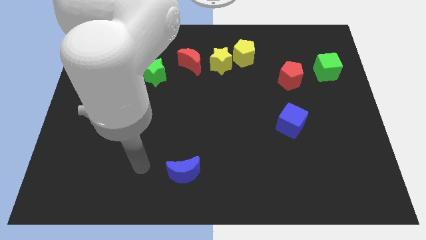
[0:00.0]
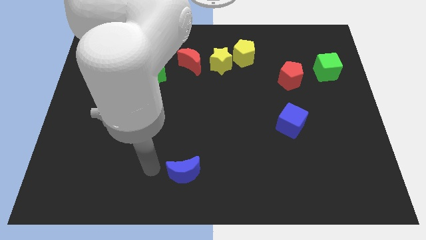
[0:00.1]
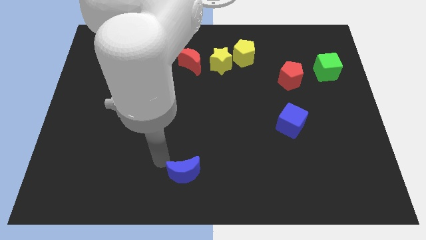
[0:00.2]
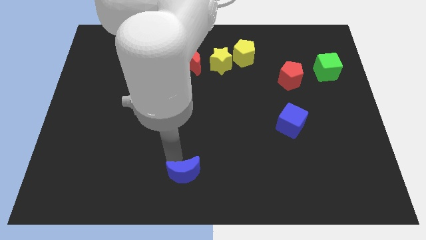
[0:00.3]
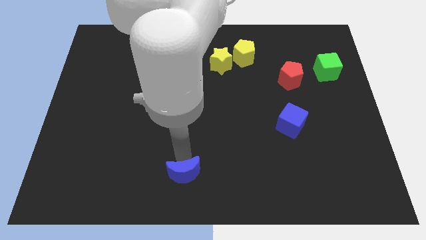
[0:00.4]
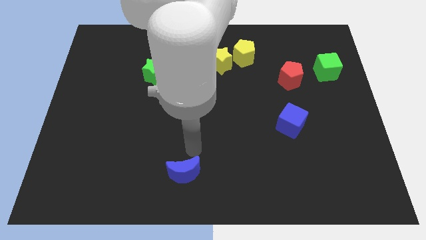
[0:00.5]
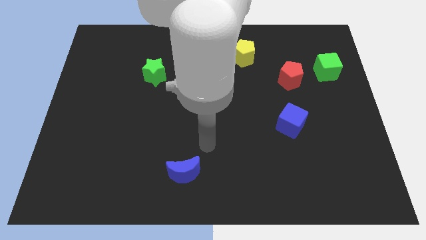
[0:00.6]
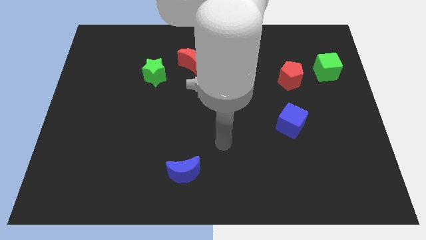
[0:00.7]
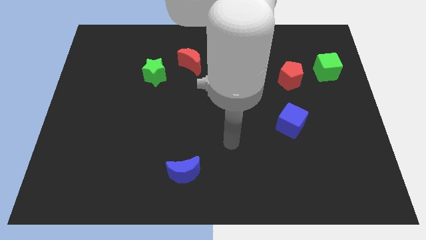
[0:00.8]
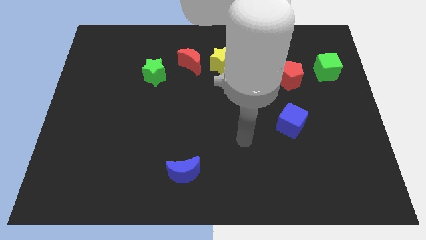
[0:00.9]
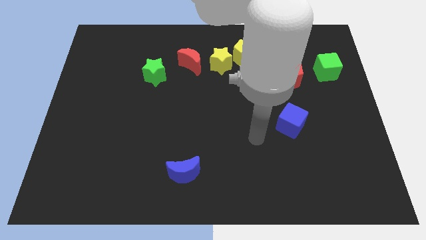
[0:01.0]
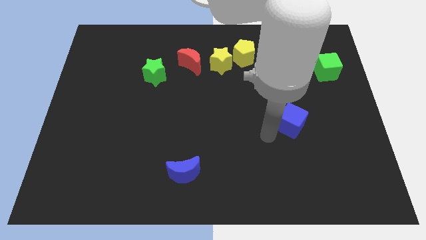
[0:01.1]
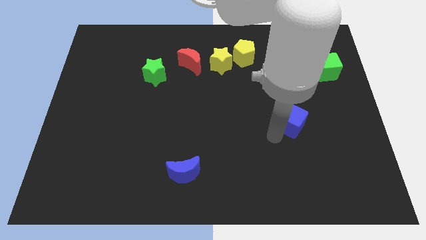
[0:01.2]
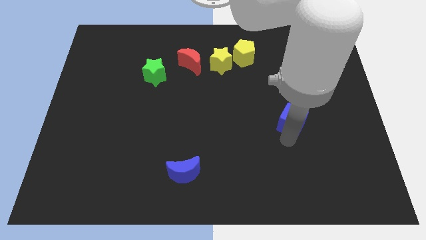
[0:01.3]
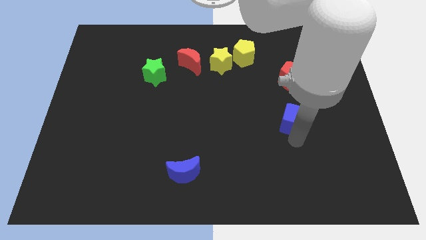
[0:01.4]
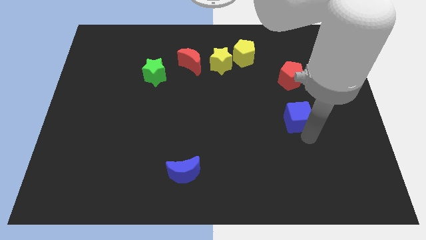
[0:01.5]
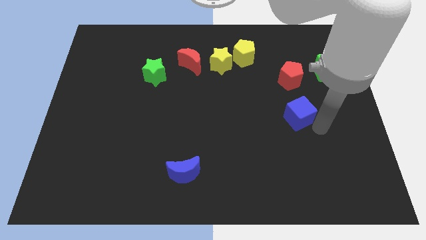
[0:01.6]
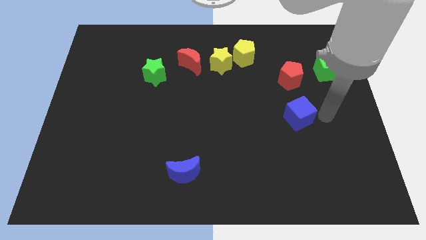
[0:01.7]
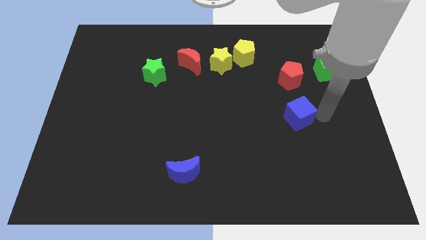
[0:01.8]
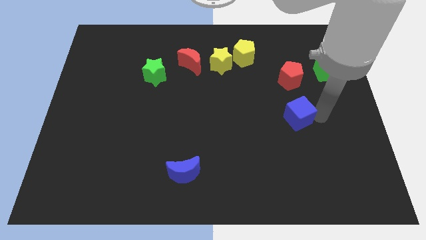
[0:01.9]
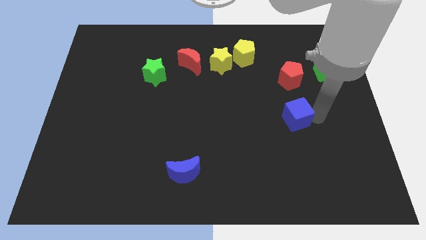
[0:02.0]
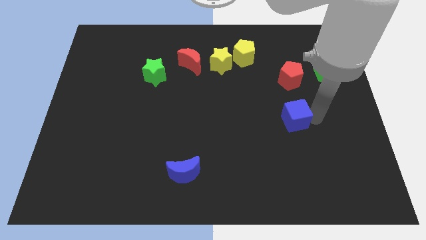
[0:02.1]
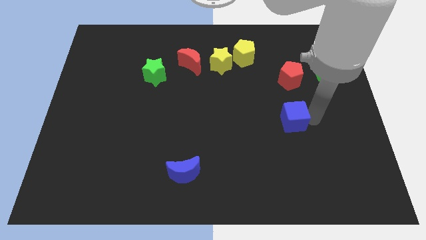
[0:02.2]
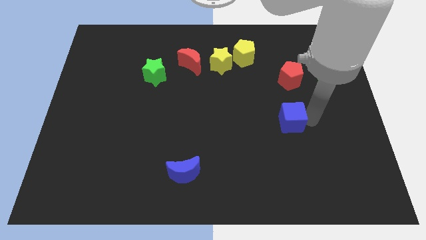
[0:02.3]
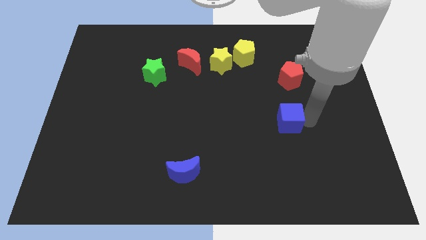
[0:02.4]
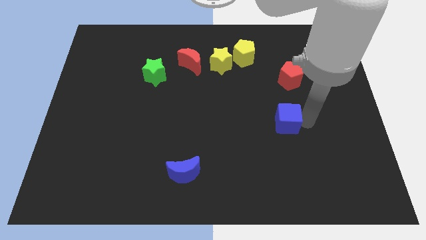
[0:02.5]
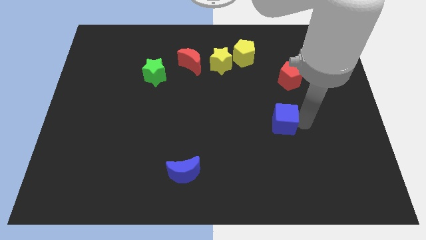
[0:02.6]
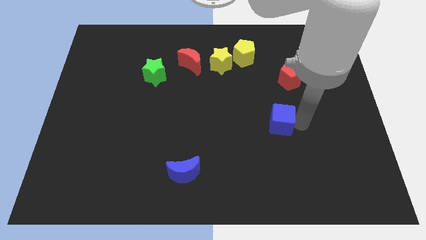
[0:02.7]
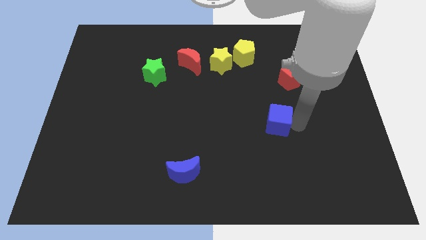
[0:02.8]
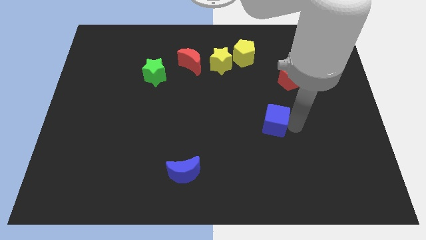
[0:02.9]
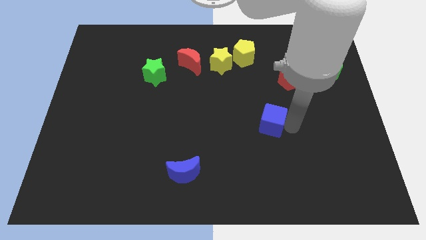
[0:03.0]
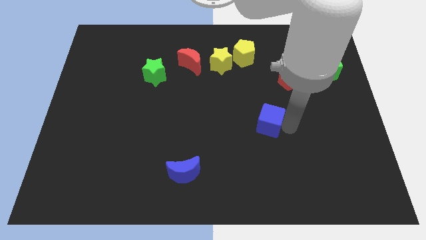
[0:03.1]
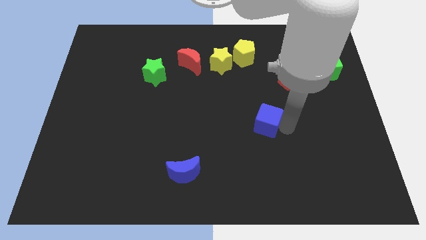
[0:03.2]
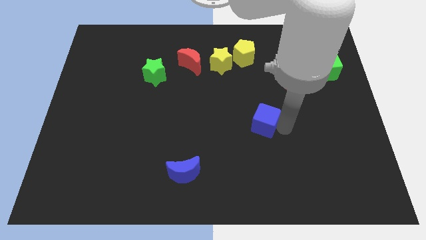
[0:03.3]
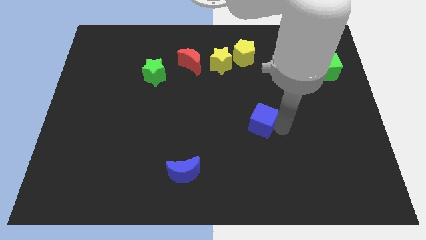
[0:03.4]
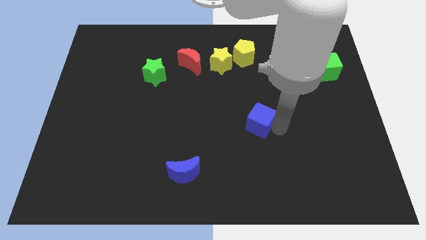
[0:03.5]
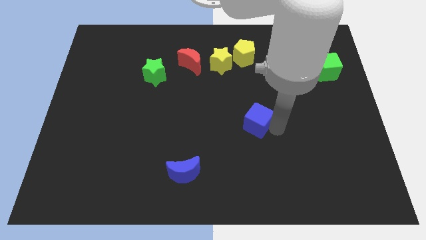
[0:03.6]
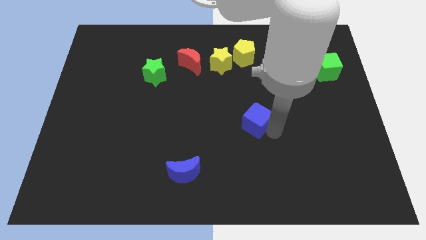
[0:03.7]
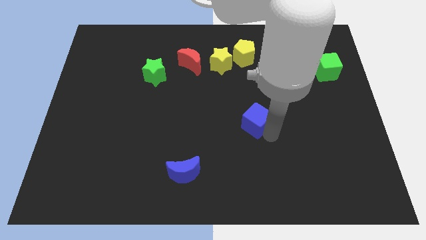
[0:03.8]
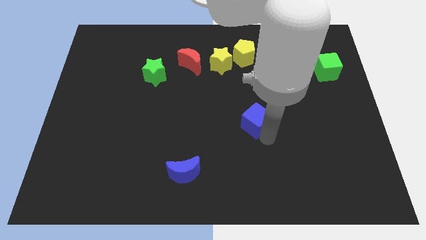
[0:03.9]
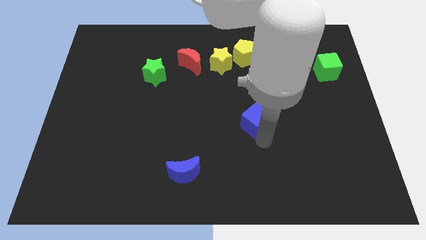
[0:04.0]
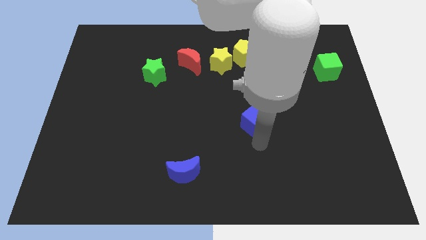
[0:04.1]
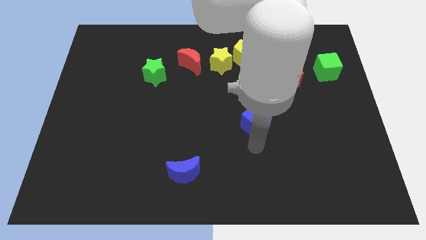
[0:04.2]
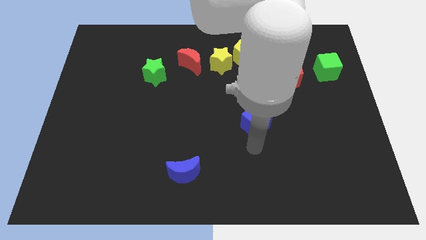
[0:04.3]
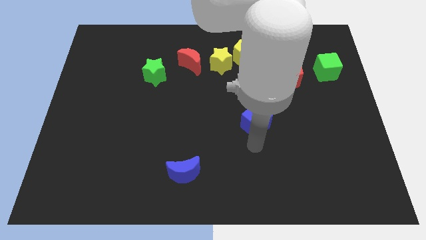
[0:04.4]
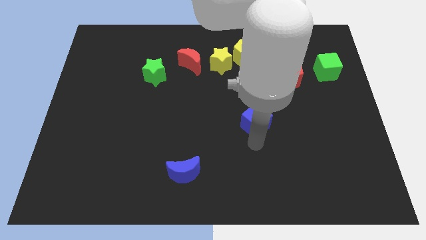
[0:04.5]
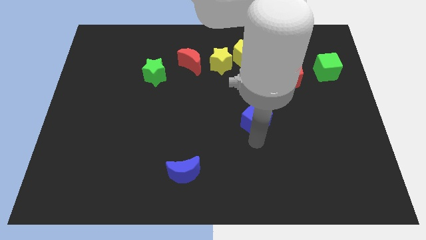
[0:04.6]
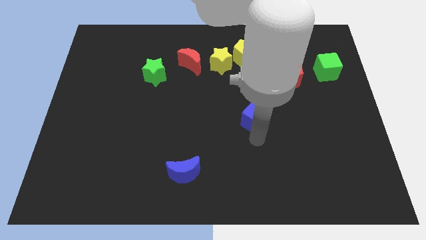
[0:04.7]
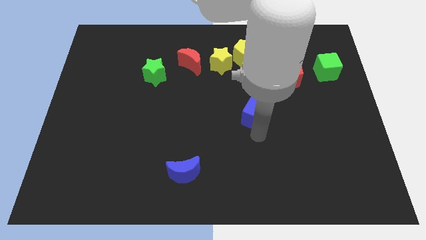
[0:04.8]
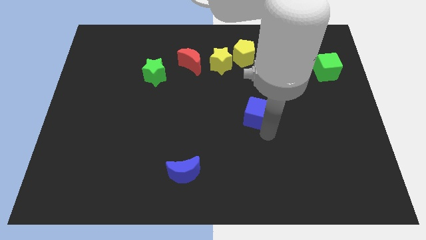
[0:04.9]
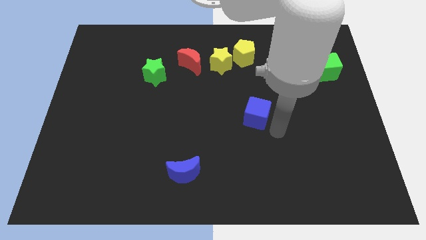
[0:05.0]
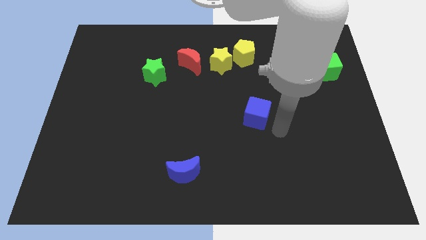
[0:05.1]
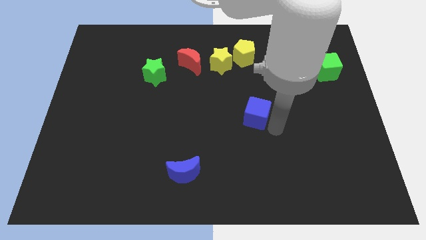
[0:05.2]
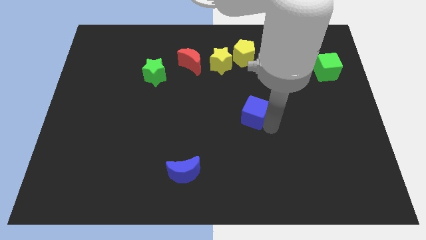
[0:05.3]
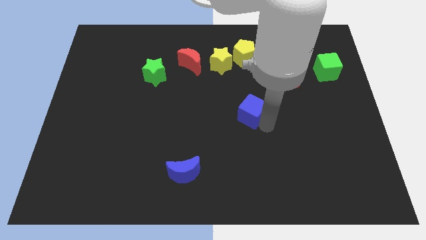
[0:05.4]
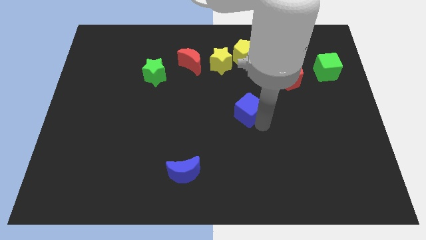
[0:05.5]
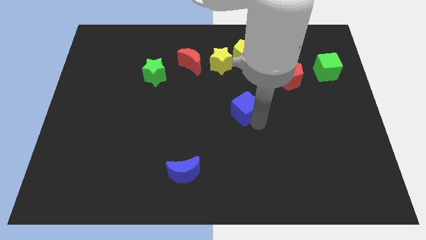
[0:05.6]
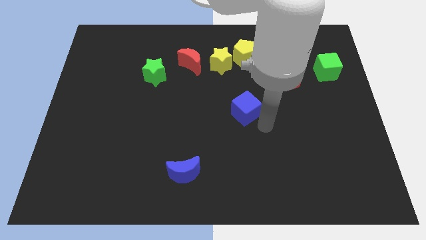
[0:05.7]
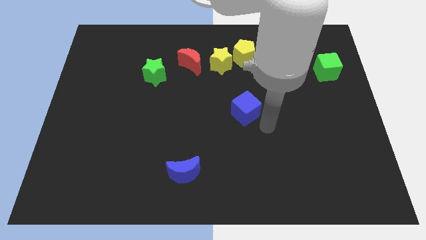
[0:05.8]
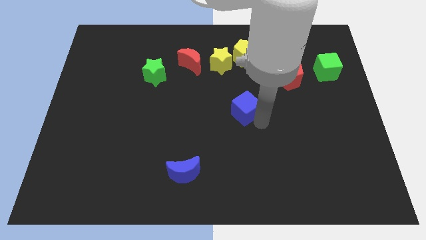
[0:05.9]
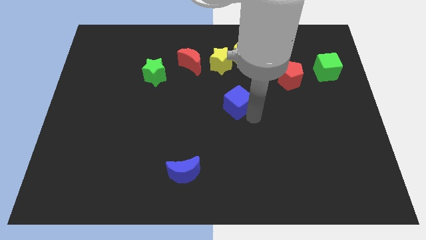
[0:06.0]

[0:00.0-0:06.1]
slide the blue cube to the bottom side of the yellow star

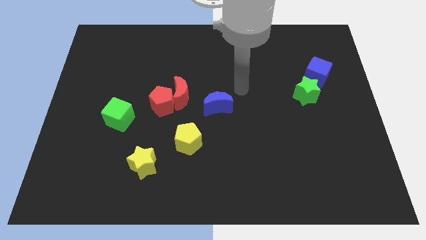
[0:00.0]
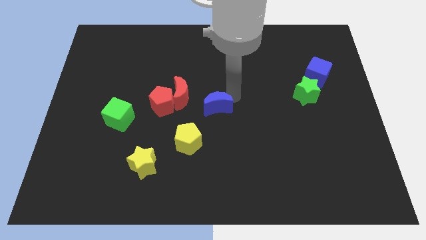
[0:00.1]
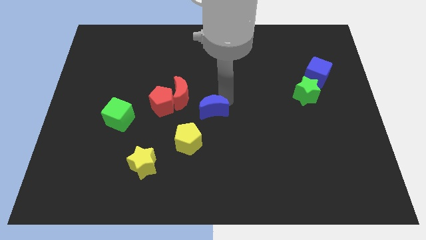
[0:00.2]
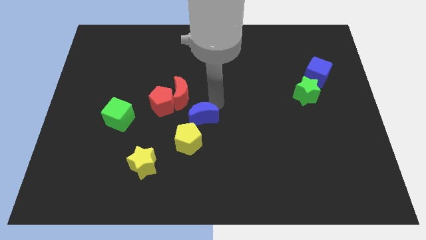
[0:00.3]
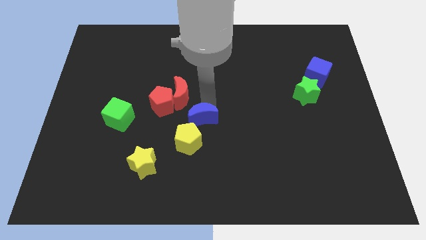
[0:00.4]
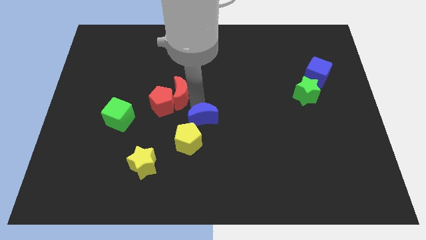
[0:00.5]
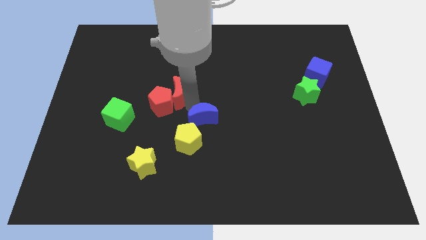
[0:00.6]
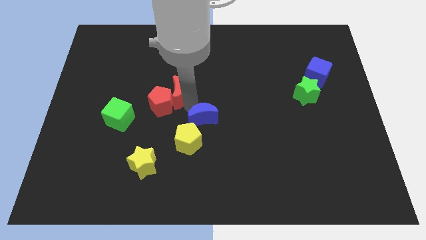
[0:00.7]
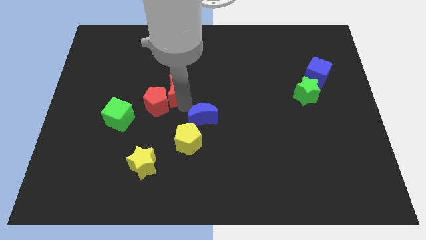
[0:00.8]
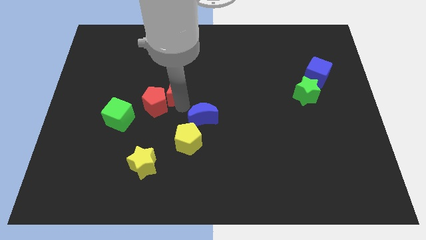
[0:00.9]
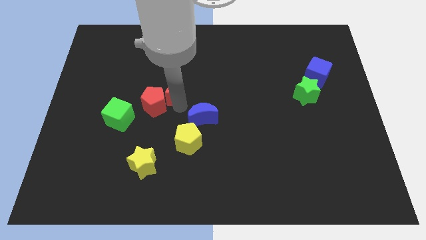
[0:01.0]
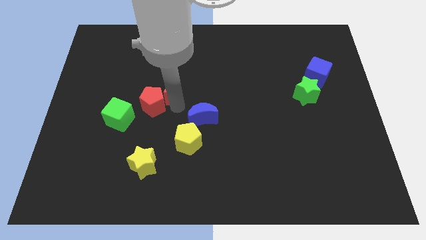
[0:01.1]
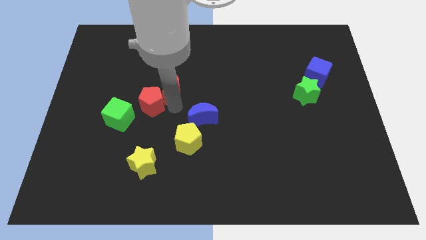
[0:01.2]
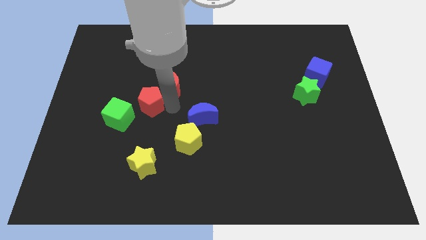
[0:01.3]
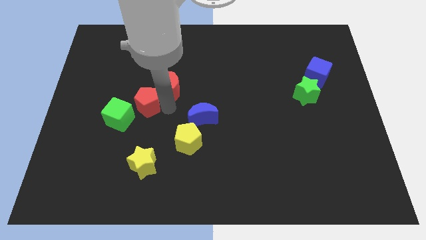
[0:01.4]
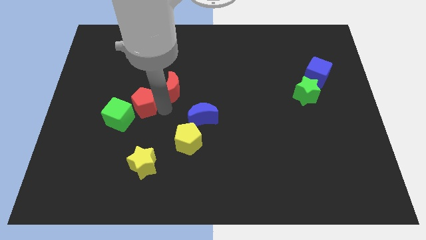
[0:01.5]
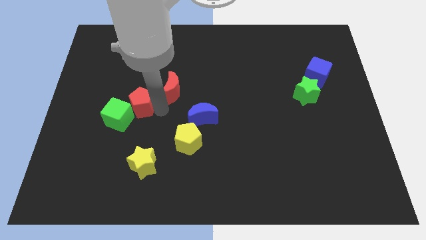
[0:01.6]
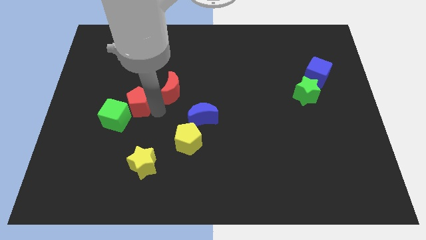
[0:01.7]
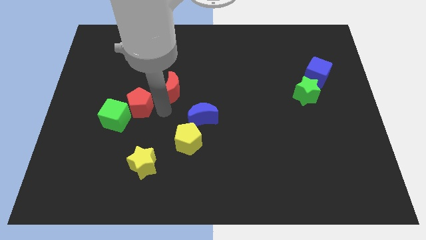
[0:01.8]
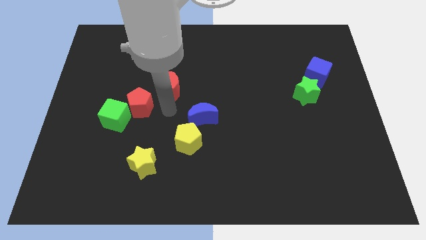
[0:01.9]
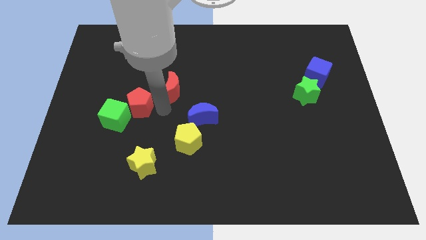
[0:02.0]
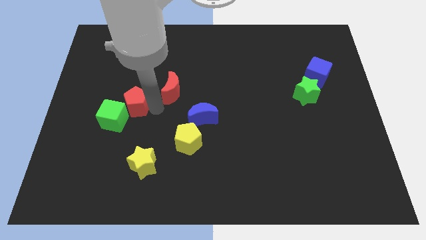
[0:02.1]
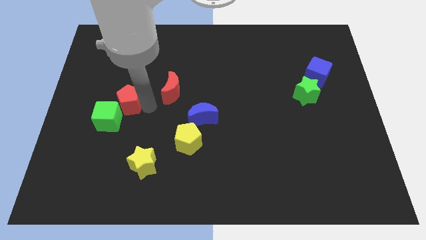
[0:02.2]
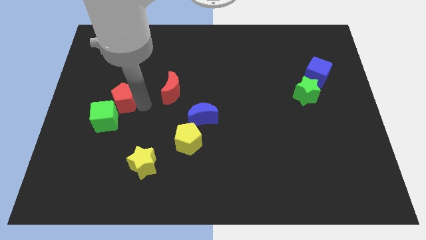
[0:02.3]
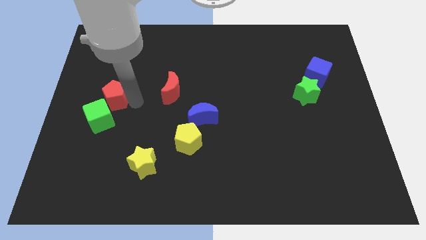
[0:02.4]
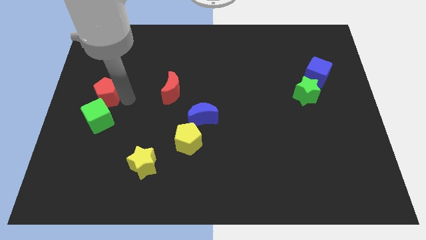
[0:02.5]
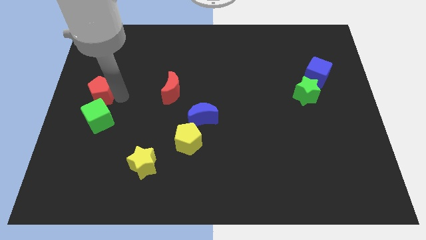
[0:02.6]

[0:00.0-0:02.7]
put the red pentagon diagonally up and to the left of the green cube
